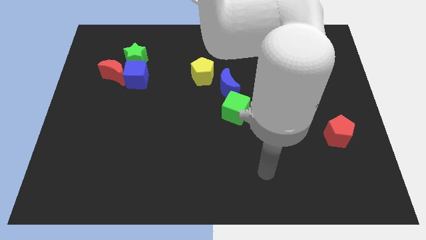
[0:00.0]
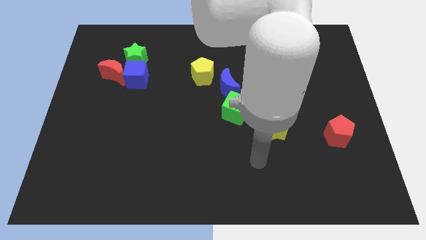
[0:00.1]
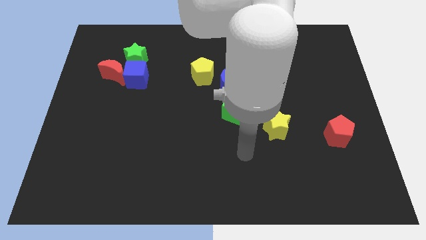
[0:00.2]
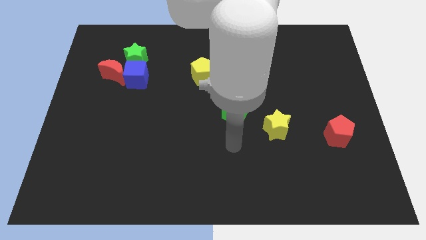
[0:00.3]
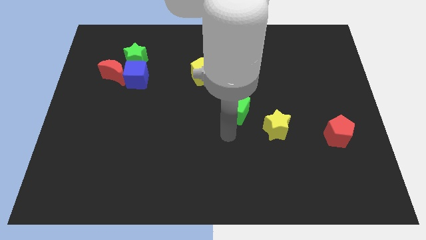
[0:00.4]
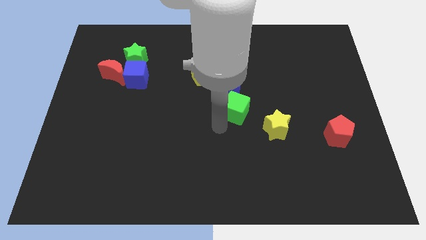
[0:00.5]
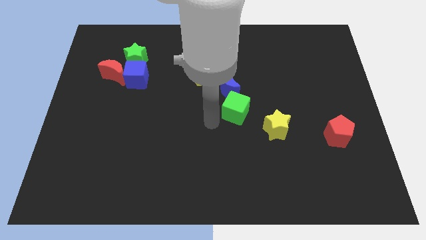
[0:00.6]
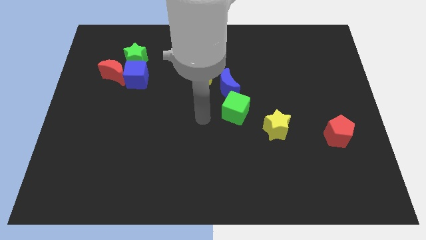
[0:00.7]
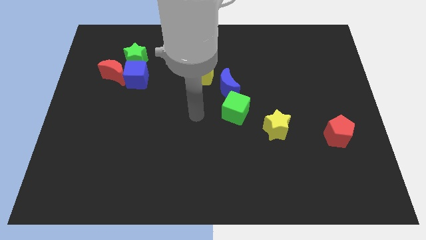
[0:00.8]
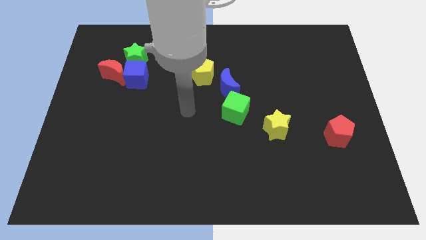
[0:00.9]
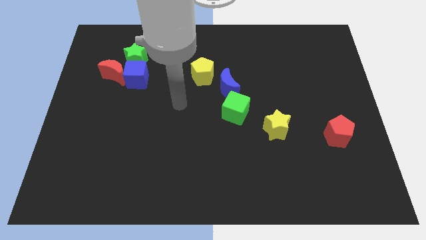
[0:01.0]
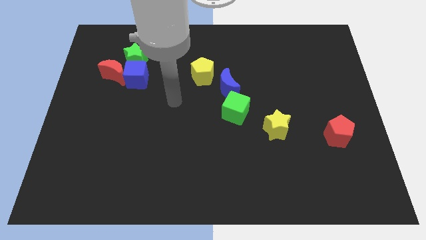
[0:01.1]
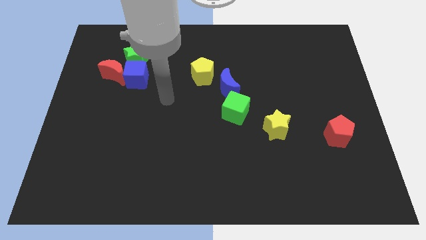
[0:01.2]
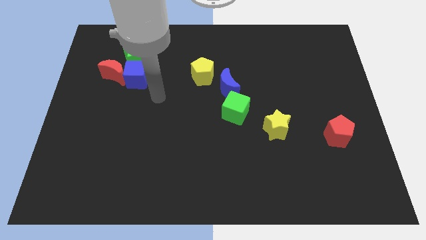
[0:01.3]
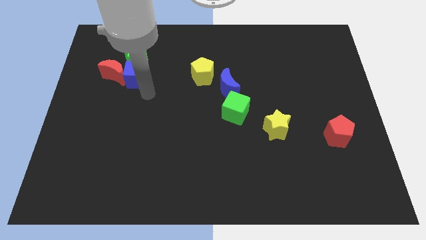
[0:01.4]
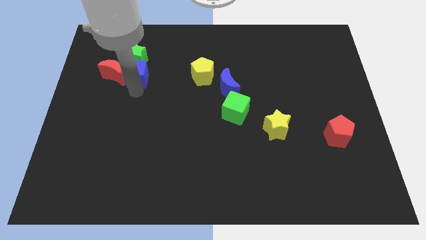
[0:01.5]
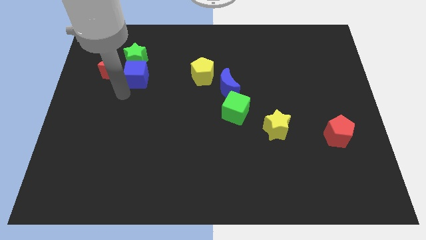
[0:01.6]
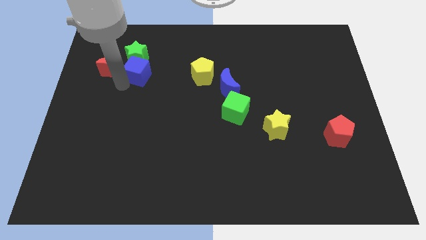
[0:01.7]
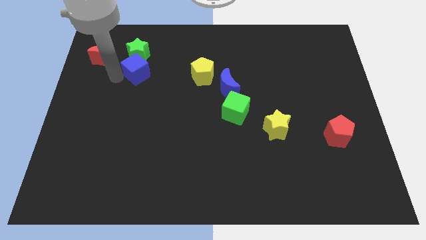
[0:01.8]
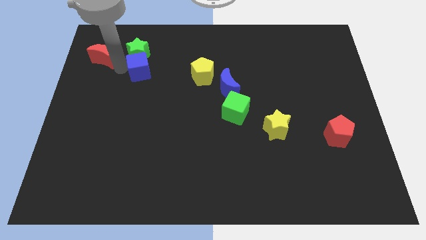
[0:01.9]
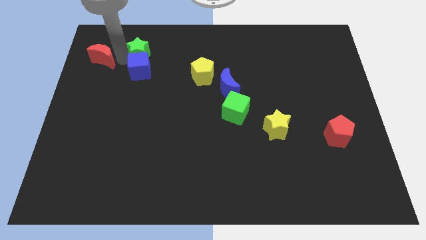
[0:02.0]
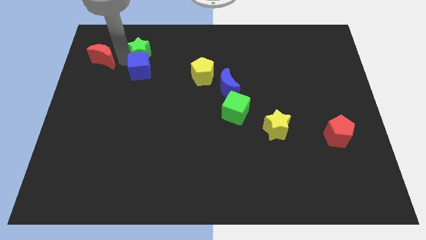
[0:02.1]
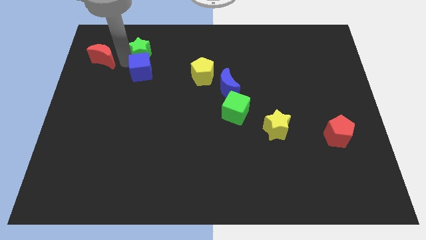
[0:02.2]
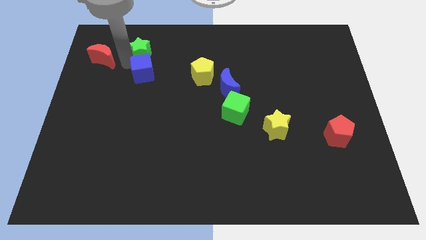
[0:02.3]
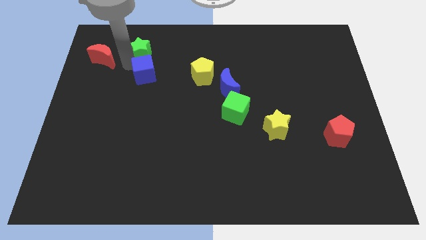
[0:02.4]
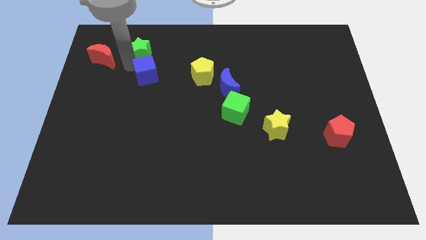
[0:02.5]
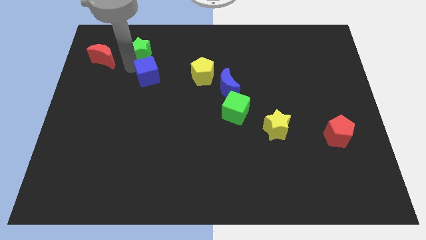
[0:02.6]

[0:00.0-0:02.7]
separate the blue cube from the red moon and green star

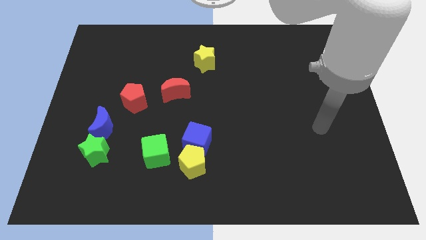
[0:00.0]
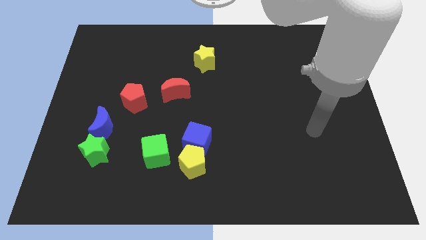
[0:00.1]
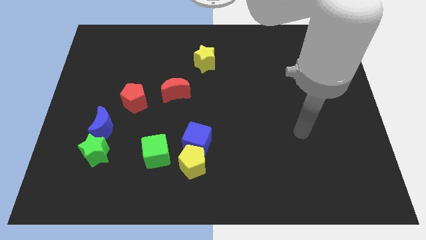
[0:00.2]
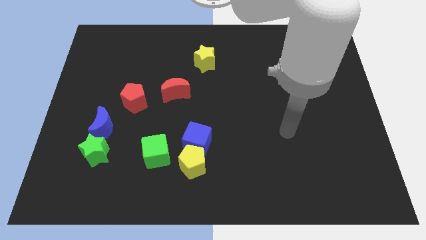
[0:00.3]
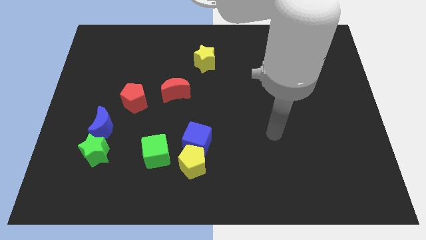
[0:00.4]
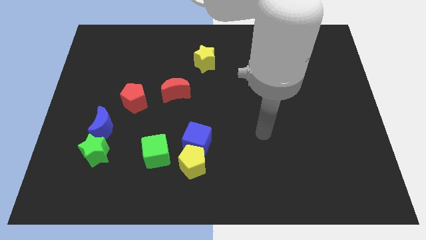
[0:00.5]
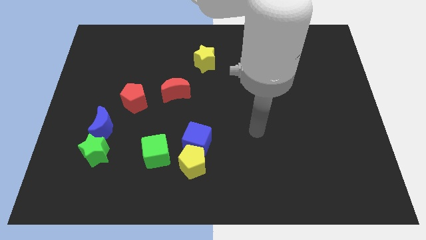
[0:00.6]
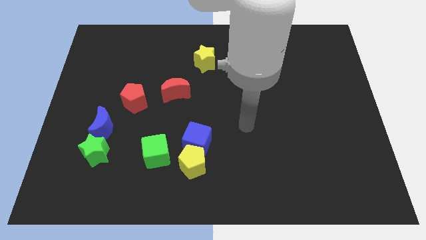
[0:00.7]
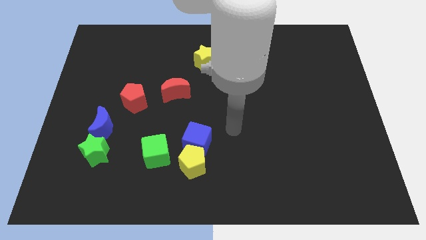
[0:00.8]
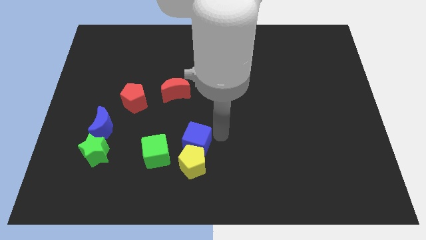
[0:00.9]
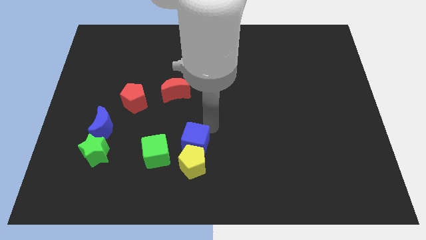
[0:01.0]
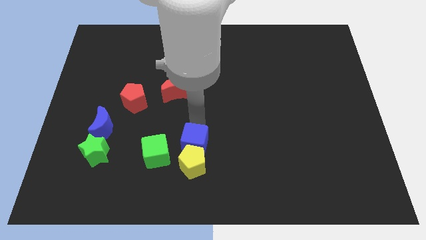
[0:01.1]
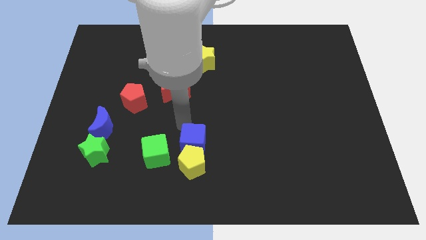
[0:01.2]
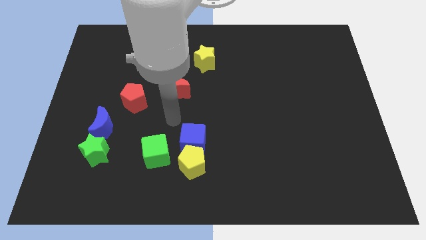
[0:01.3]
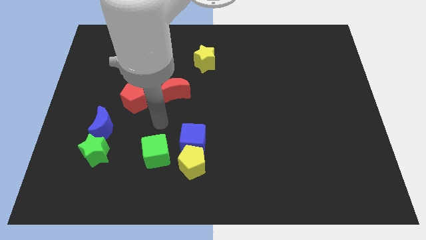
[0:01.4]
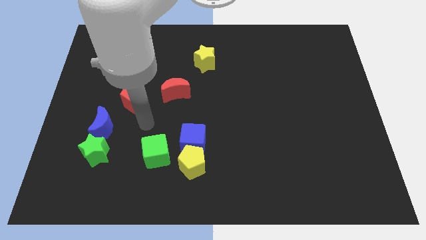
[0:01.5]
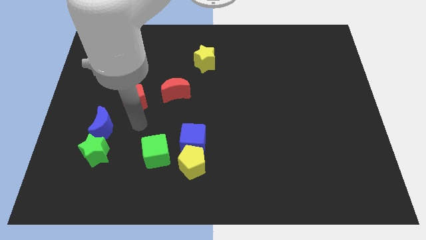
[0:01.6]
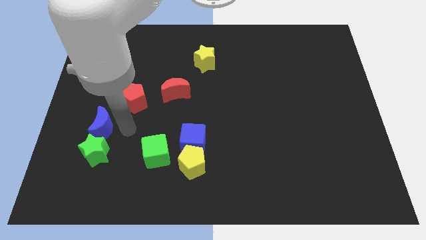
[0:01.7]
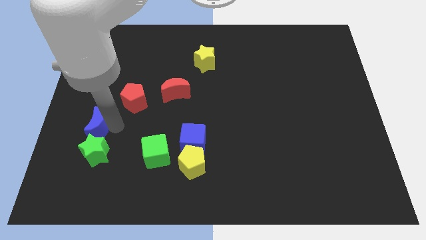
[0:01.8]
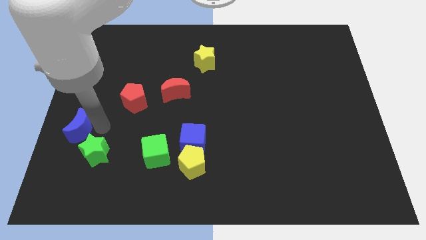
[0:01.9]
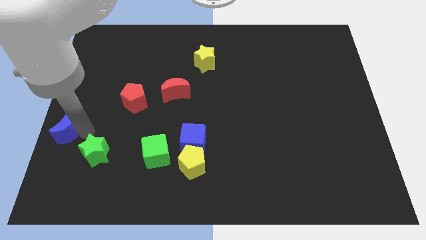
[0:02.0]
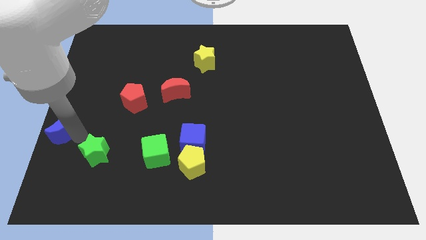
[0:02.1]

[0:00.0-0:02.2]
pull the green star apart from the blue moon

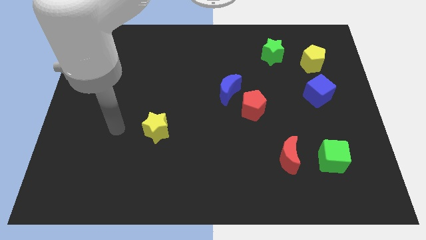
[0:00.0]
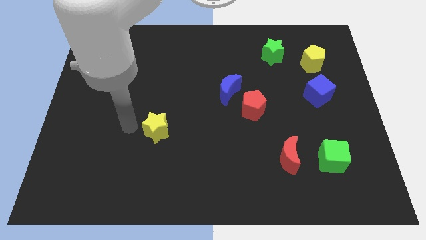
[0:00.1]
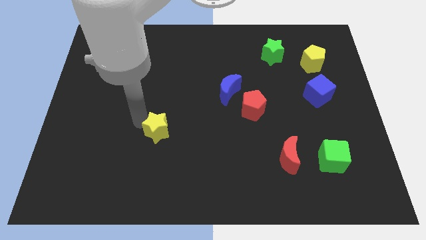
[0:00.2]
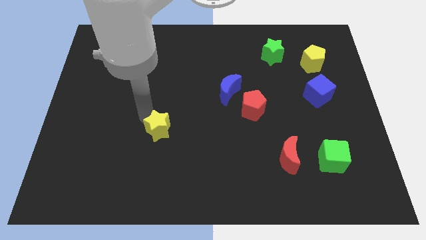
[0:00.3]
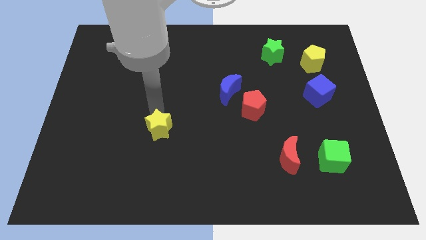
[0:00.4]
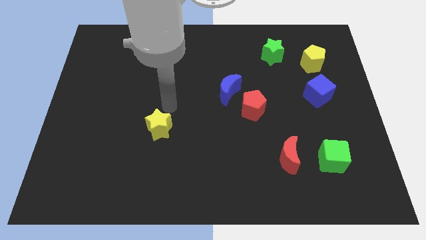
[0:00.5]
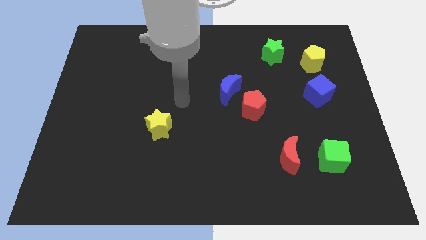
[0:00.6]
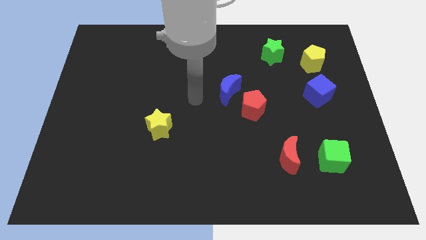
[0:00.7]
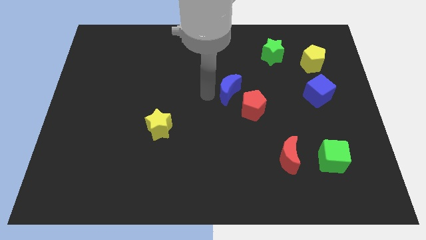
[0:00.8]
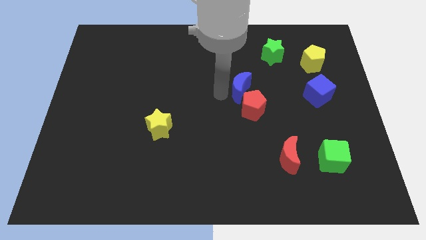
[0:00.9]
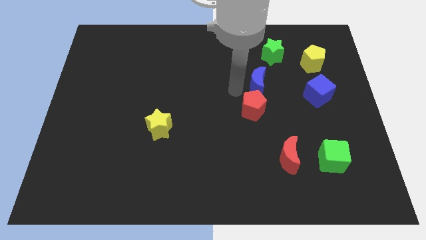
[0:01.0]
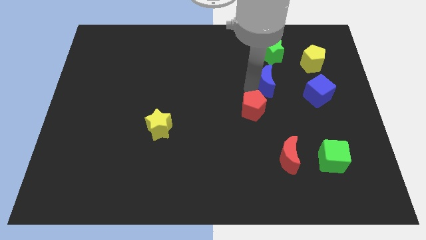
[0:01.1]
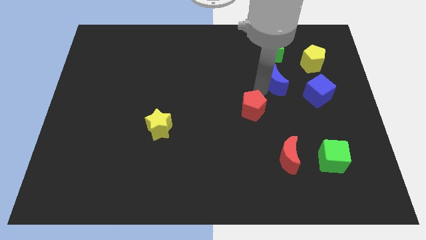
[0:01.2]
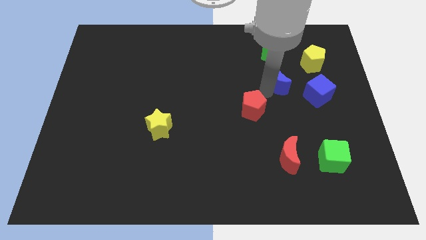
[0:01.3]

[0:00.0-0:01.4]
move the red pentagon away from the blue moon

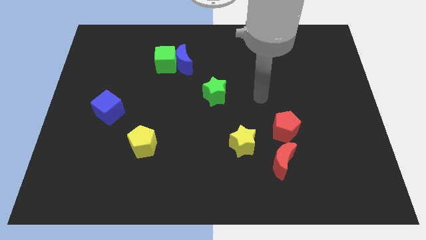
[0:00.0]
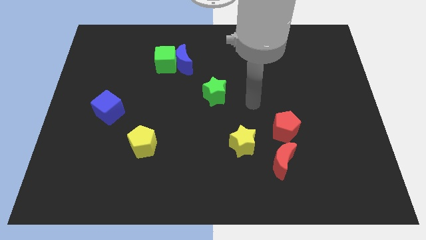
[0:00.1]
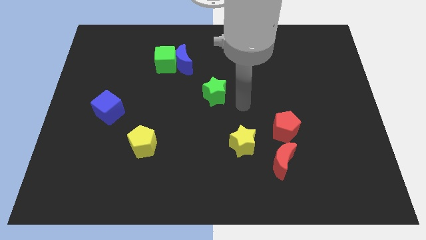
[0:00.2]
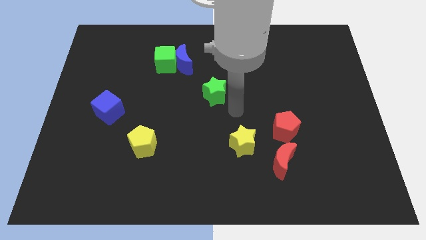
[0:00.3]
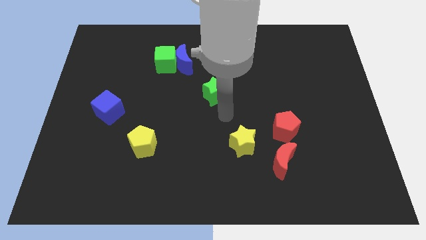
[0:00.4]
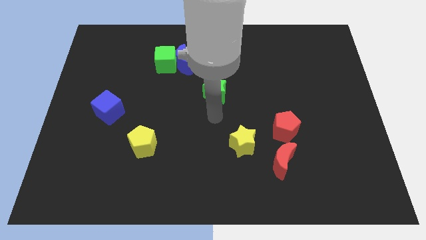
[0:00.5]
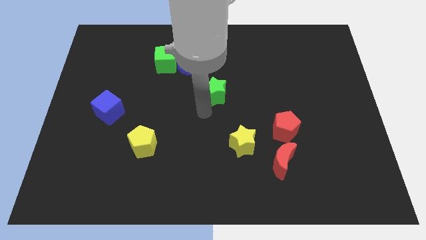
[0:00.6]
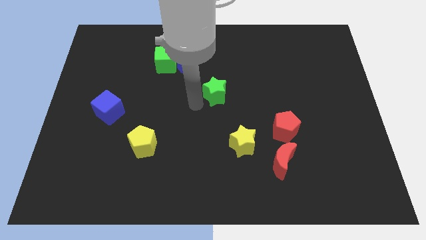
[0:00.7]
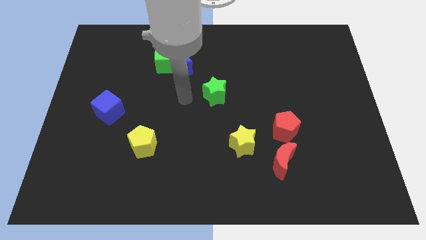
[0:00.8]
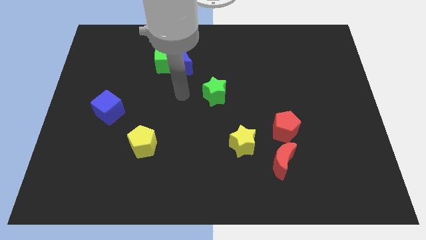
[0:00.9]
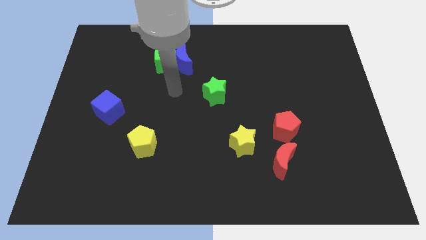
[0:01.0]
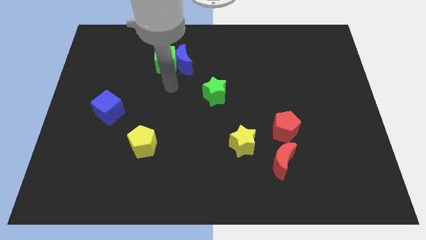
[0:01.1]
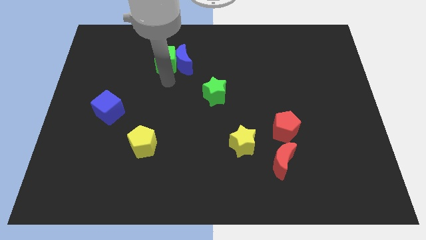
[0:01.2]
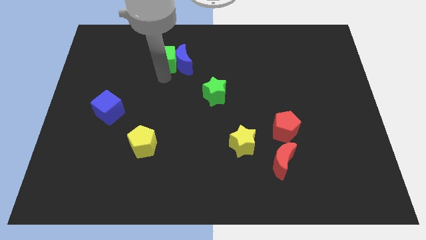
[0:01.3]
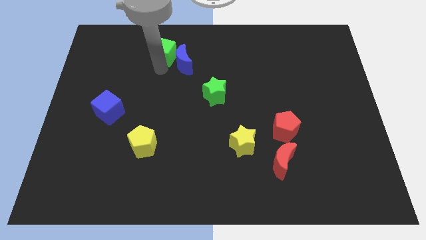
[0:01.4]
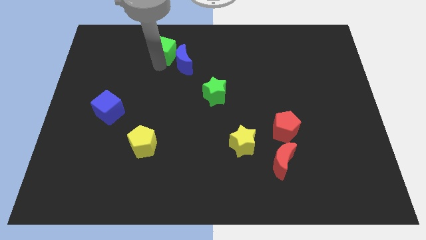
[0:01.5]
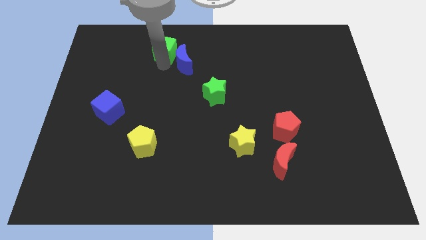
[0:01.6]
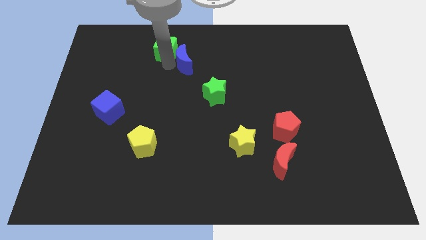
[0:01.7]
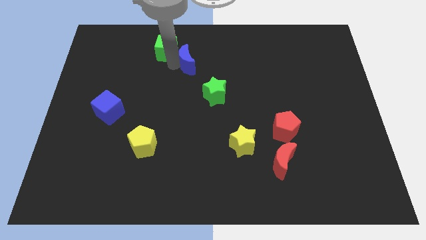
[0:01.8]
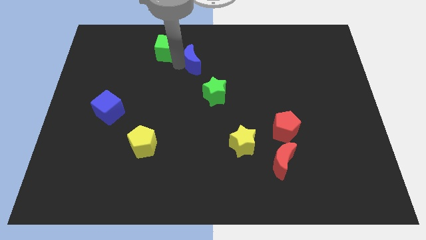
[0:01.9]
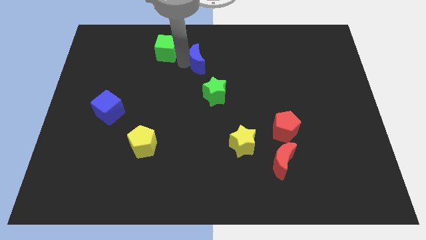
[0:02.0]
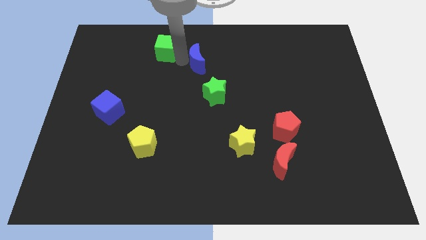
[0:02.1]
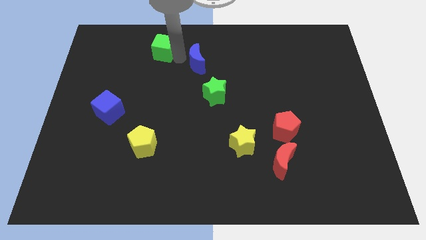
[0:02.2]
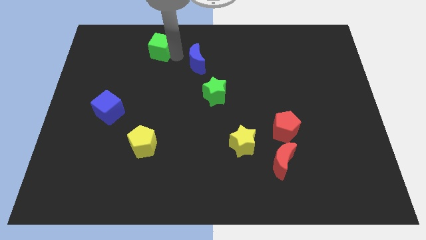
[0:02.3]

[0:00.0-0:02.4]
move the blue moon away from the green cube

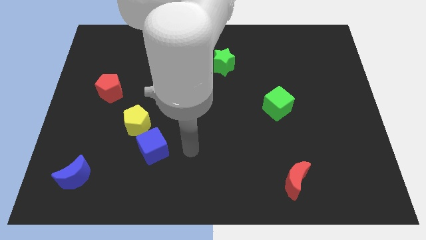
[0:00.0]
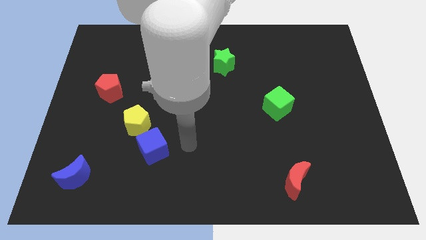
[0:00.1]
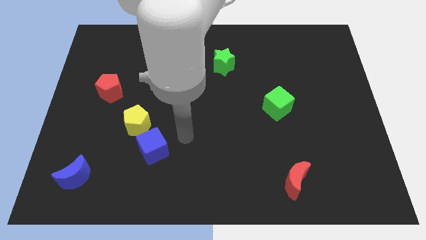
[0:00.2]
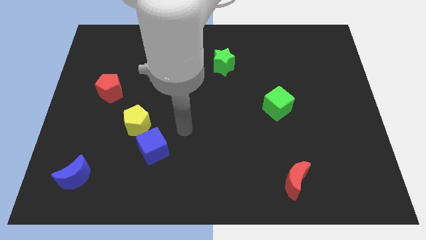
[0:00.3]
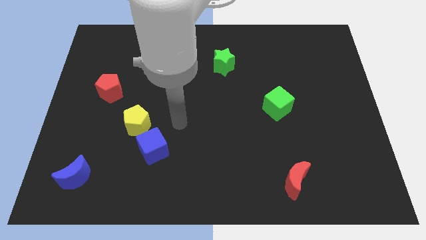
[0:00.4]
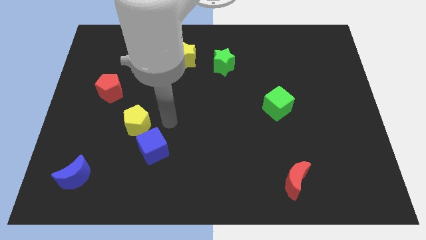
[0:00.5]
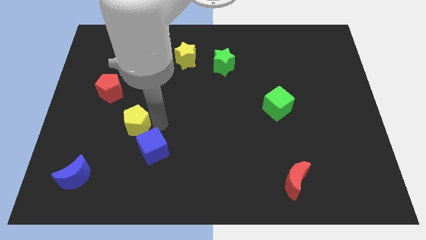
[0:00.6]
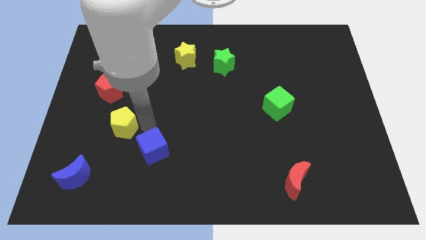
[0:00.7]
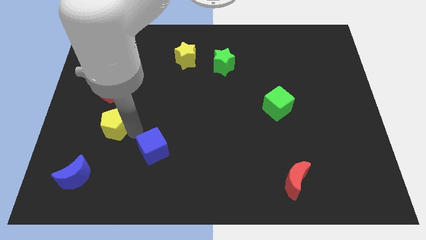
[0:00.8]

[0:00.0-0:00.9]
move the blue cube away from the yellow pentagon
